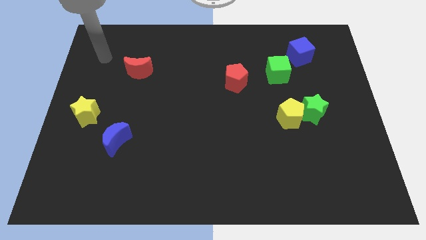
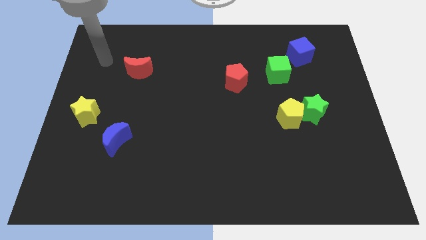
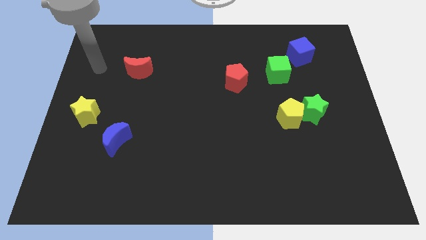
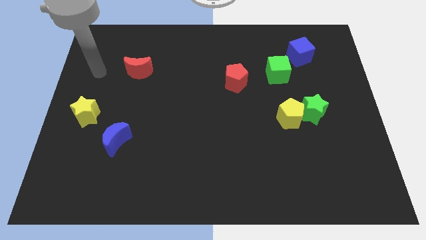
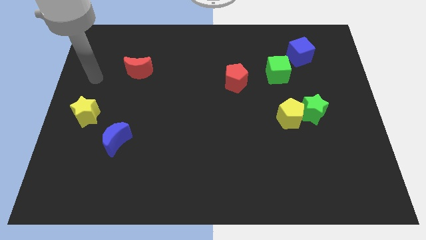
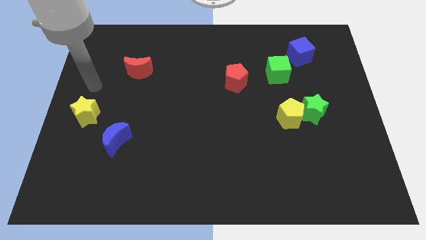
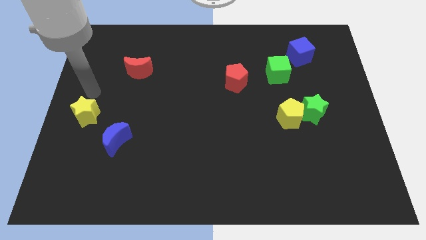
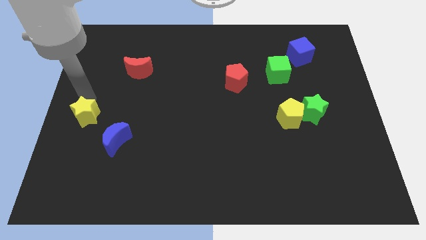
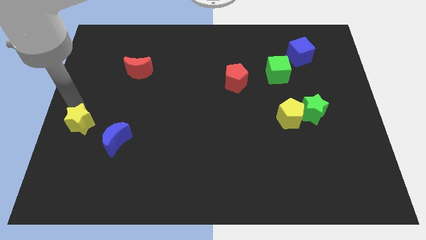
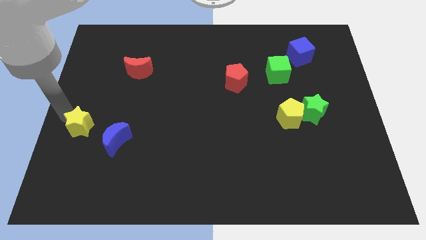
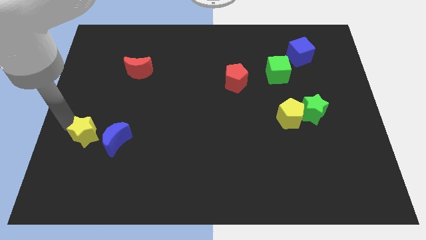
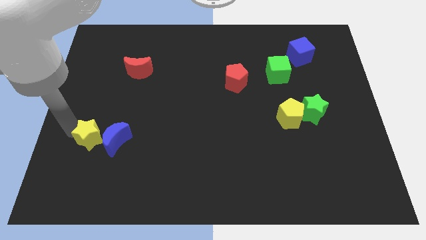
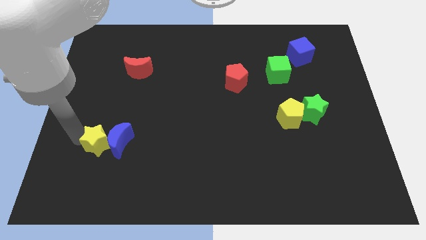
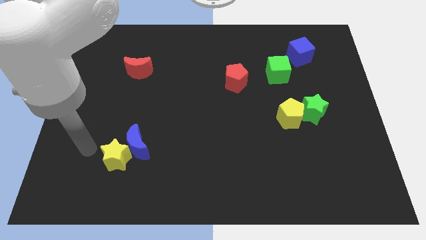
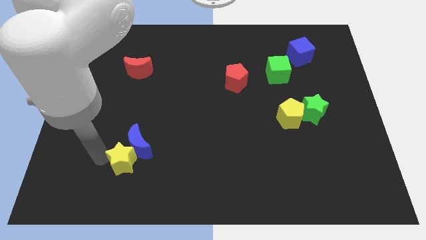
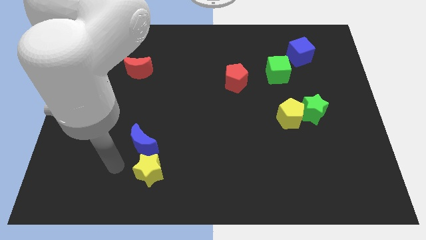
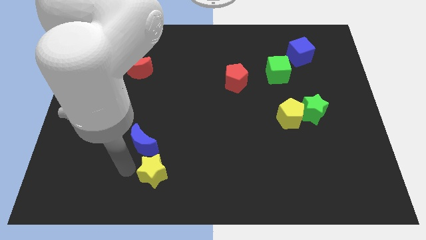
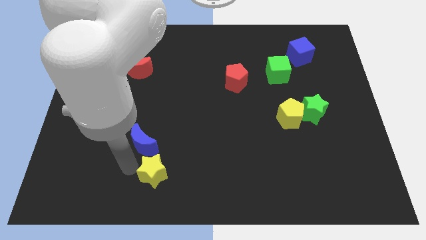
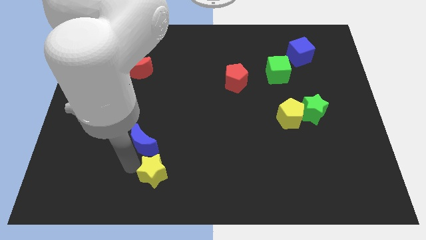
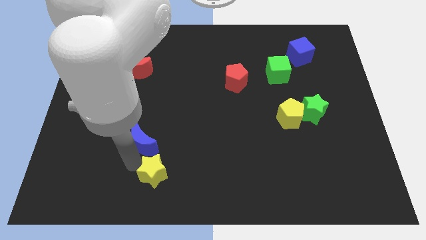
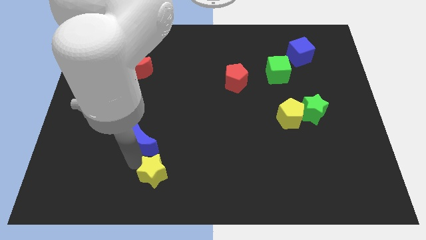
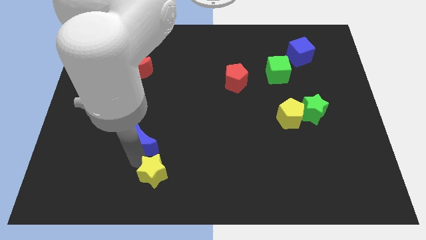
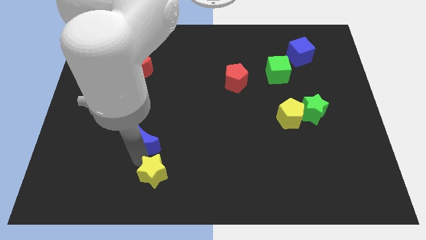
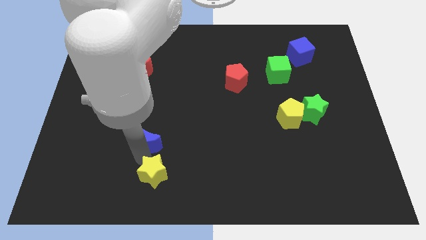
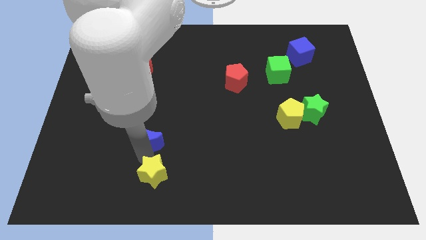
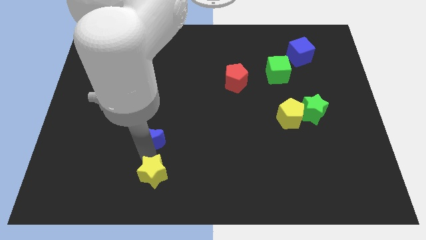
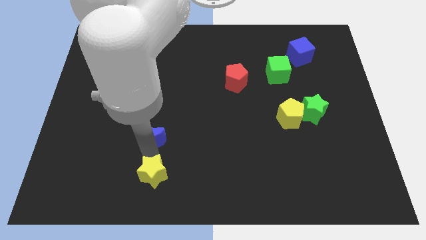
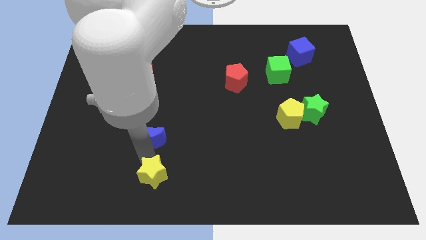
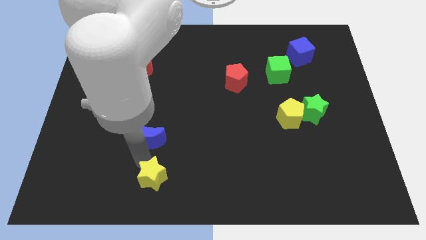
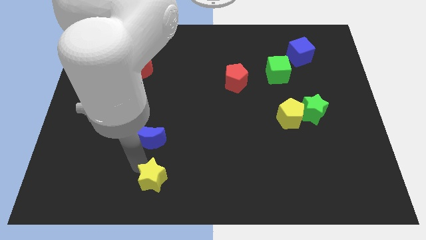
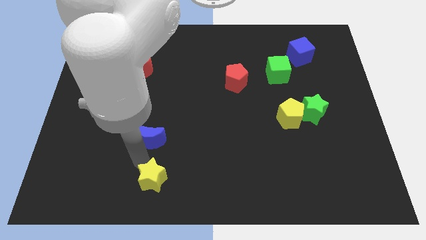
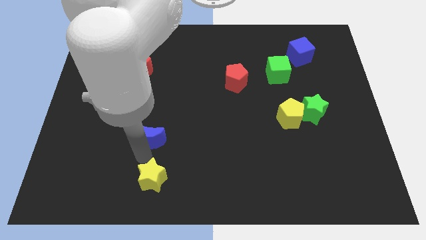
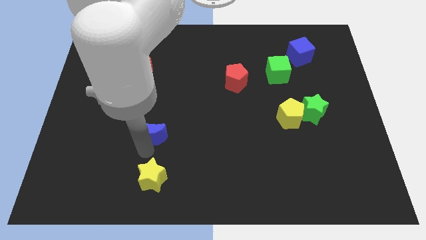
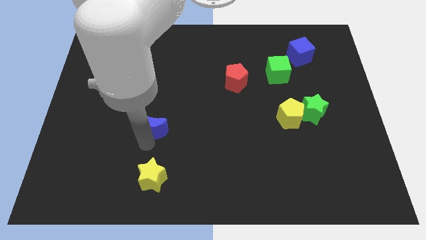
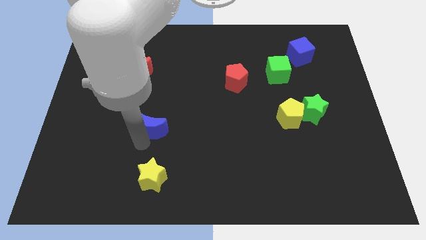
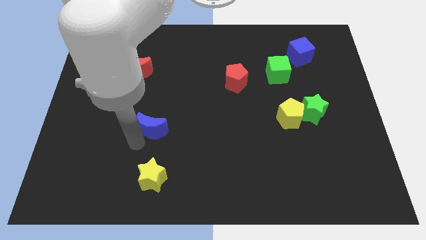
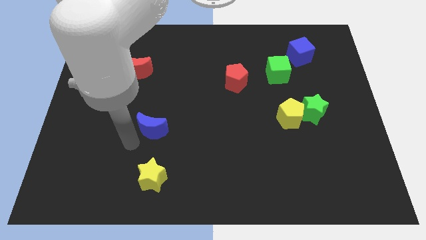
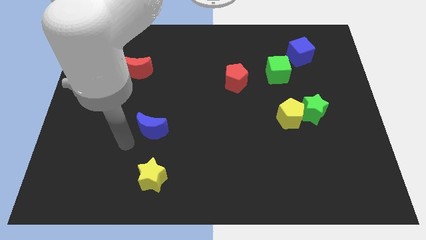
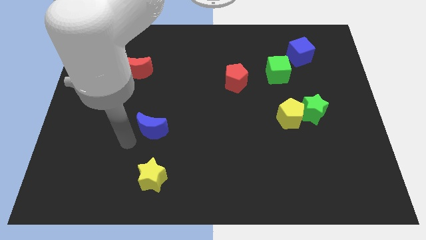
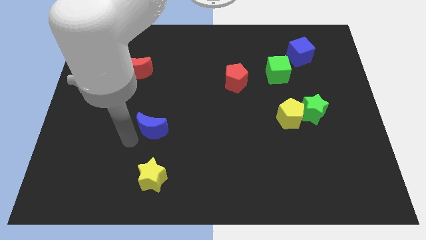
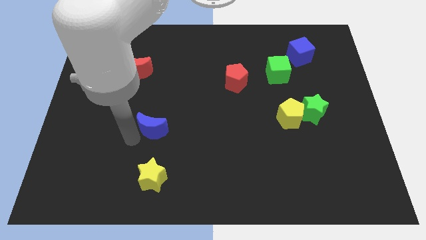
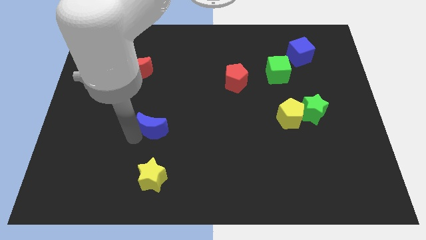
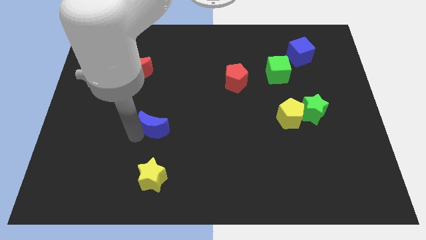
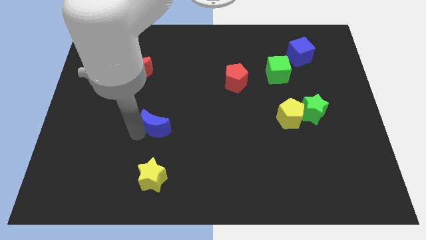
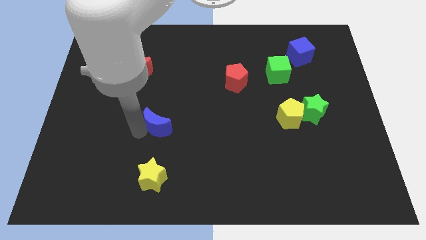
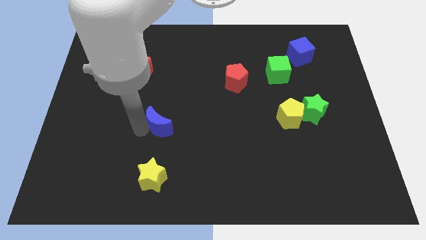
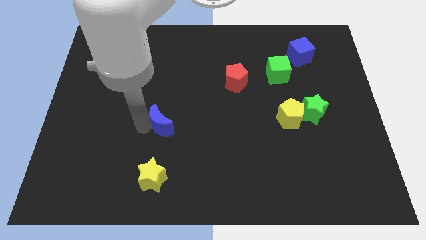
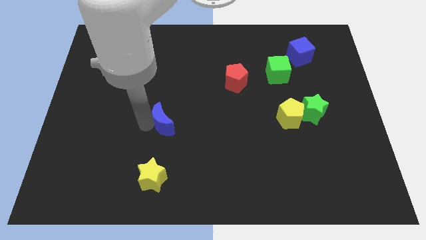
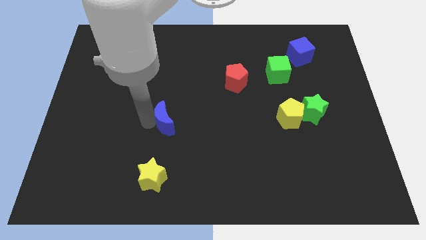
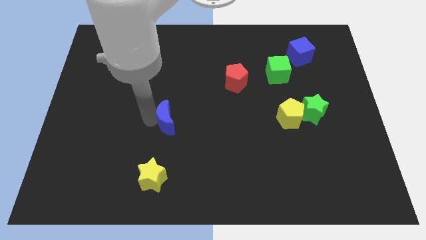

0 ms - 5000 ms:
move the blue moon to the center of the board
